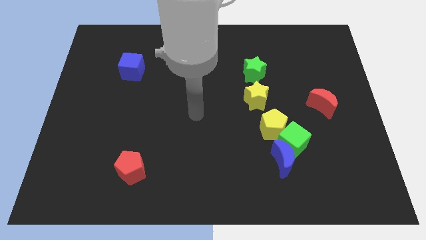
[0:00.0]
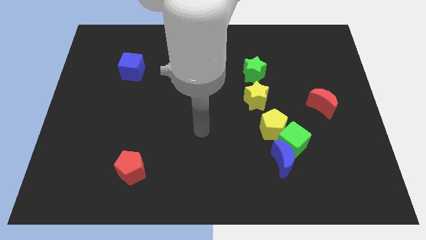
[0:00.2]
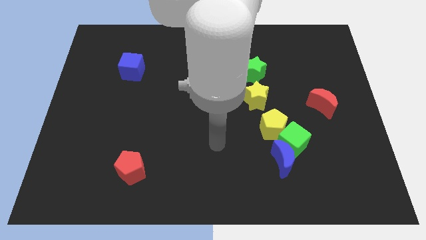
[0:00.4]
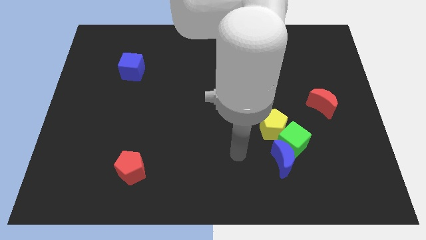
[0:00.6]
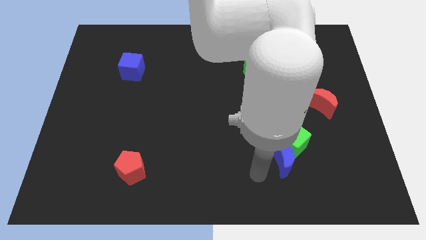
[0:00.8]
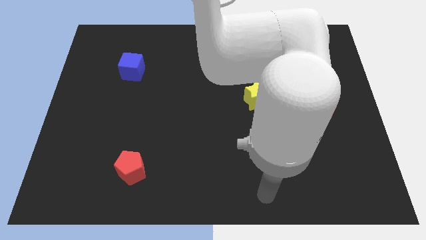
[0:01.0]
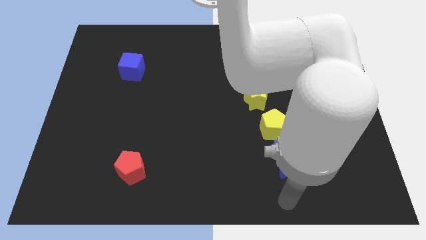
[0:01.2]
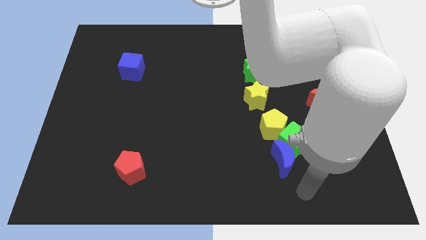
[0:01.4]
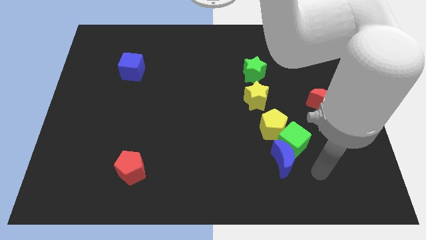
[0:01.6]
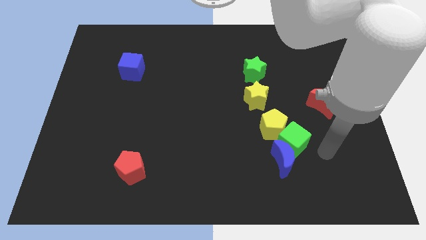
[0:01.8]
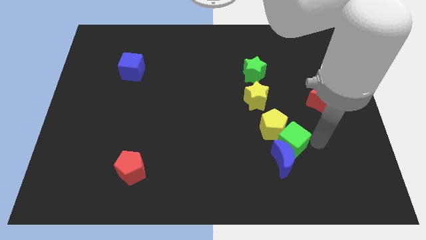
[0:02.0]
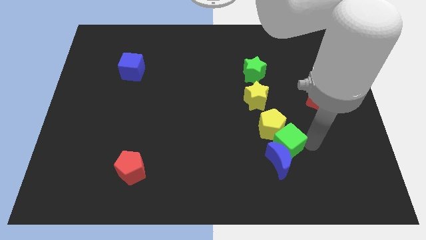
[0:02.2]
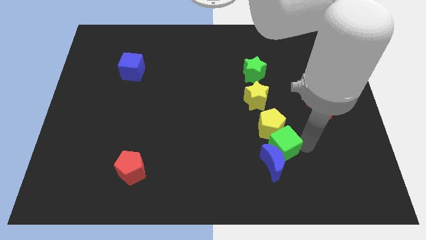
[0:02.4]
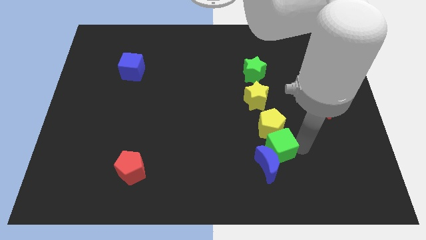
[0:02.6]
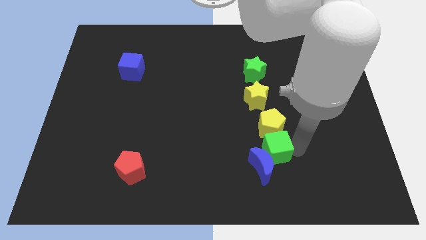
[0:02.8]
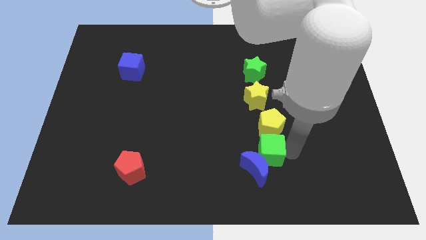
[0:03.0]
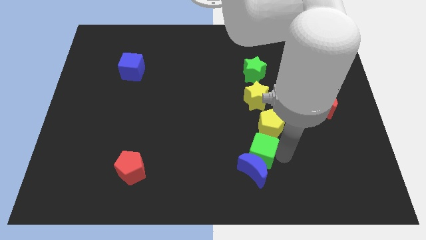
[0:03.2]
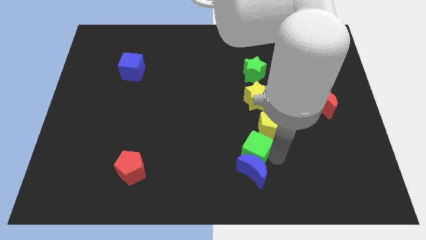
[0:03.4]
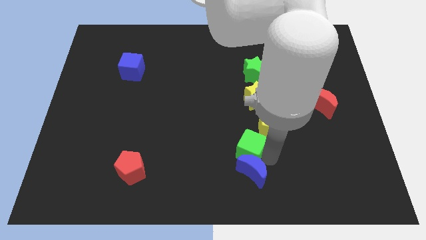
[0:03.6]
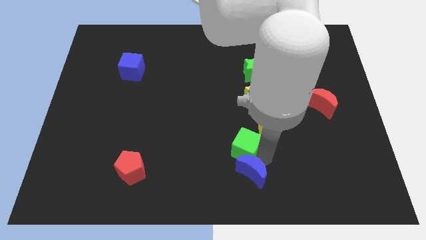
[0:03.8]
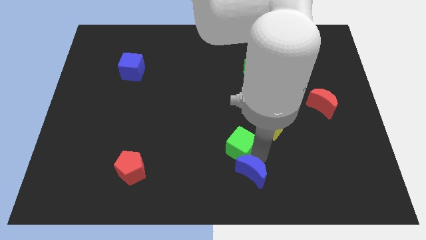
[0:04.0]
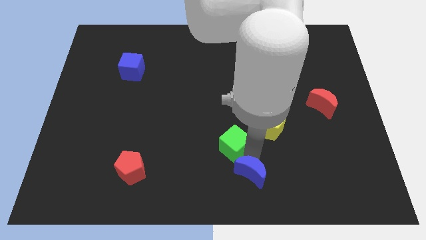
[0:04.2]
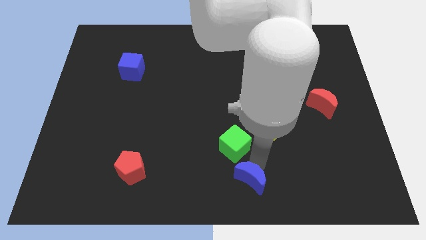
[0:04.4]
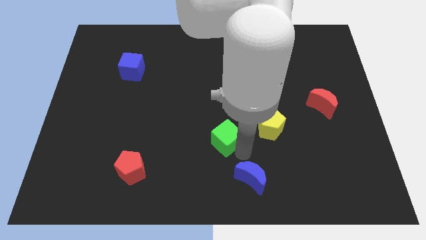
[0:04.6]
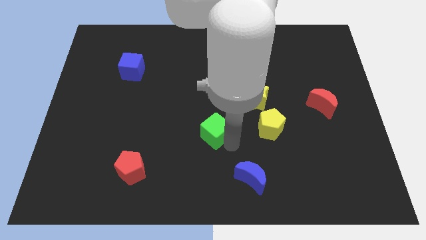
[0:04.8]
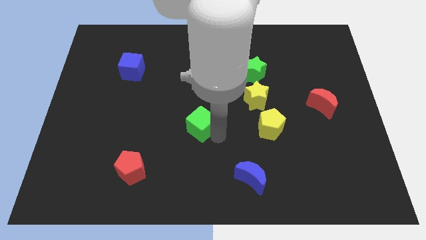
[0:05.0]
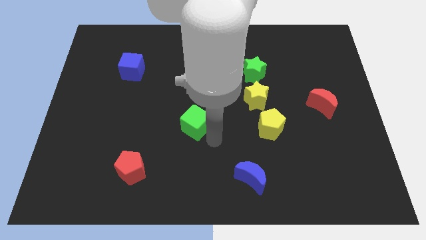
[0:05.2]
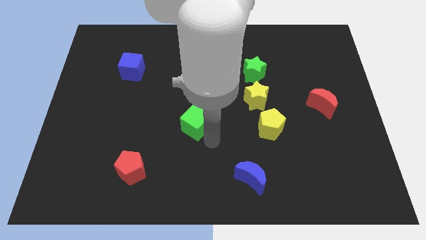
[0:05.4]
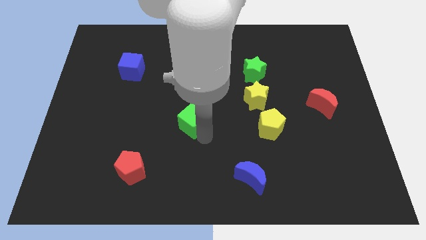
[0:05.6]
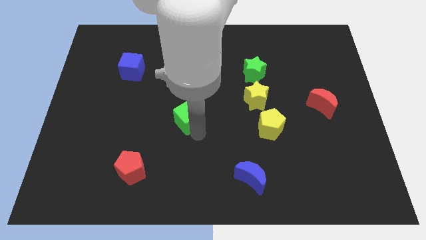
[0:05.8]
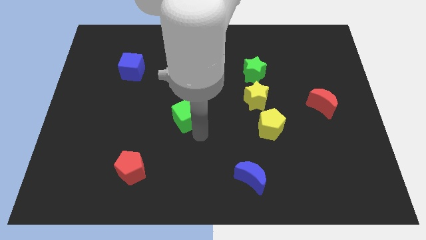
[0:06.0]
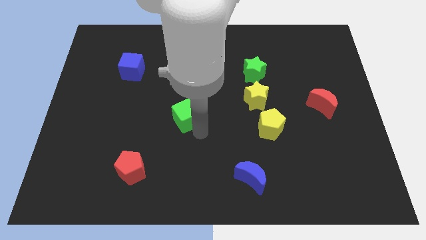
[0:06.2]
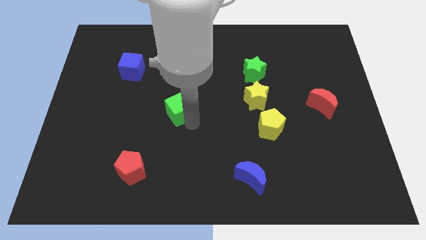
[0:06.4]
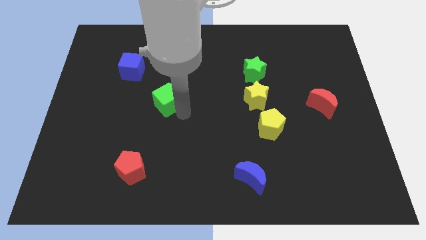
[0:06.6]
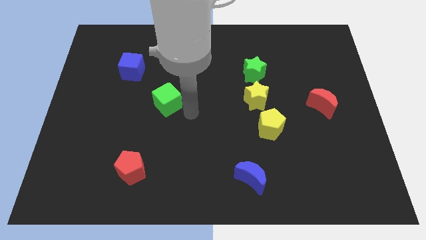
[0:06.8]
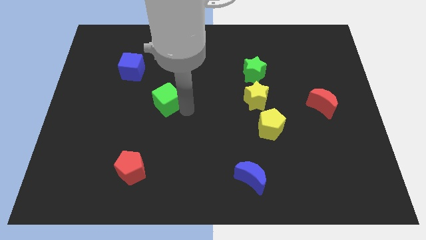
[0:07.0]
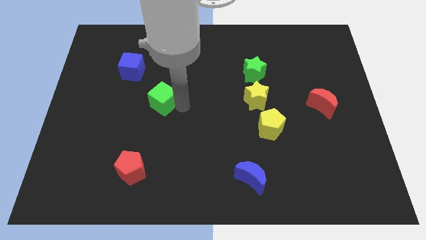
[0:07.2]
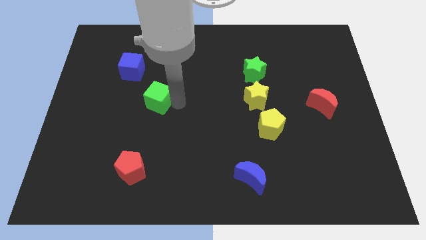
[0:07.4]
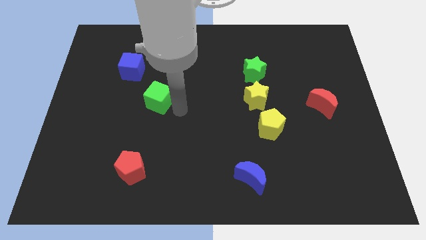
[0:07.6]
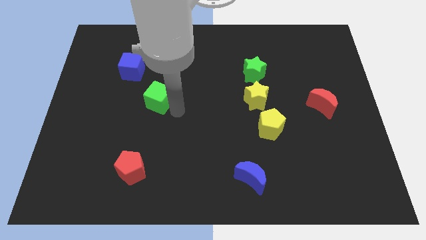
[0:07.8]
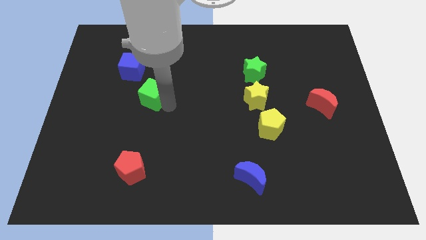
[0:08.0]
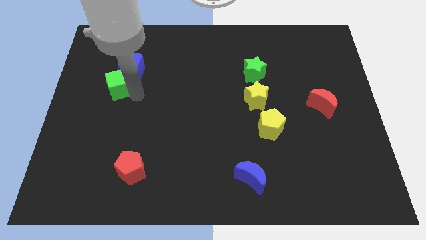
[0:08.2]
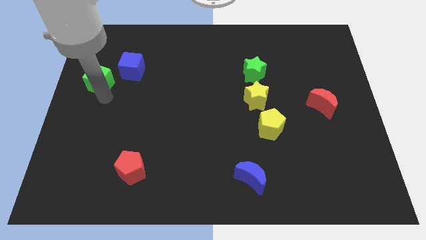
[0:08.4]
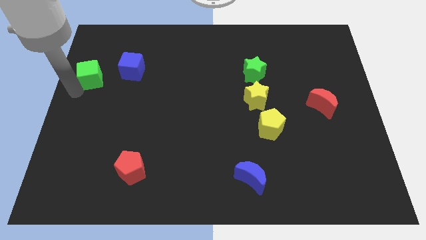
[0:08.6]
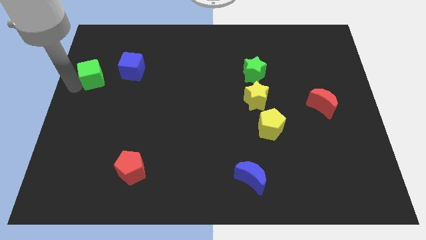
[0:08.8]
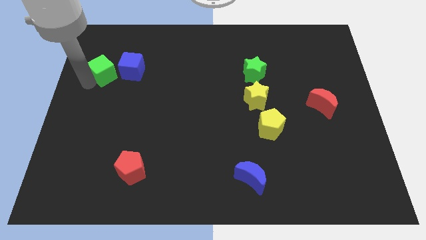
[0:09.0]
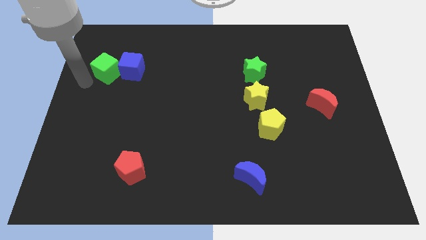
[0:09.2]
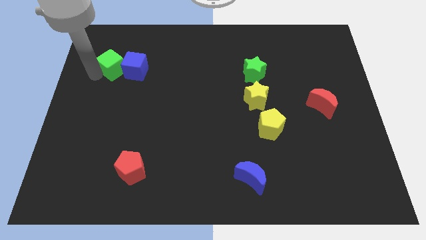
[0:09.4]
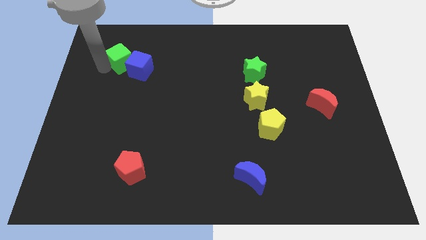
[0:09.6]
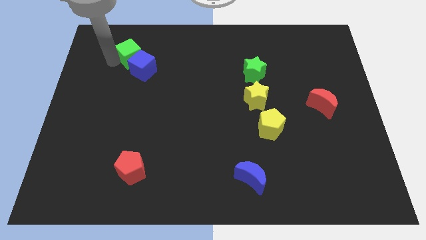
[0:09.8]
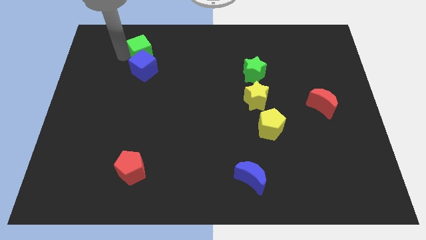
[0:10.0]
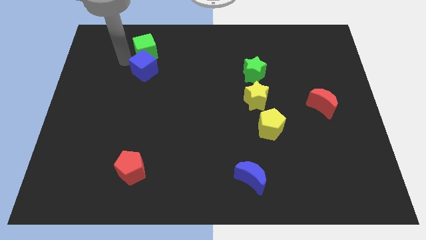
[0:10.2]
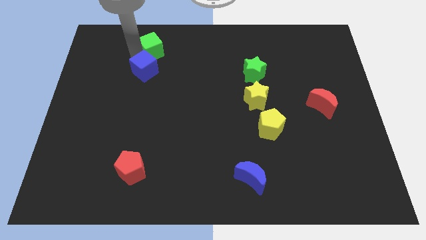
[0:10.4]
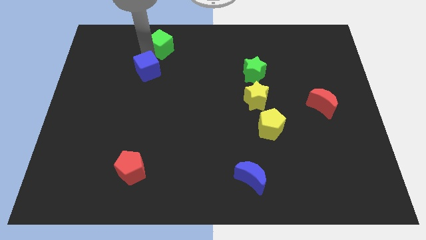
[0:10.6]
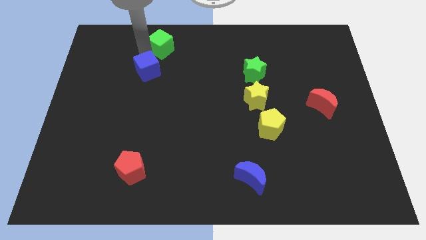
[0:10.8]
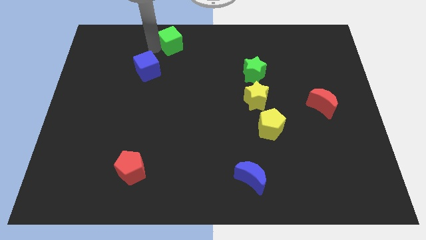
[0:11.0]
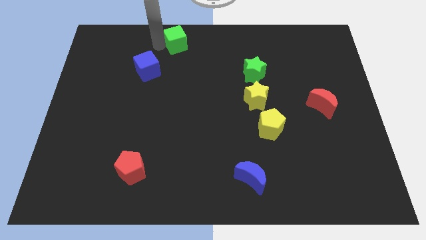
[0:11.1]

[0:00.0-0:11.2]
push the green cube to the towards your base

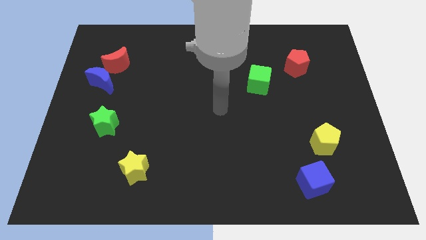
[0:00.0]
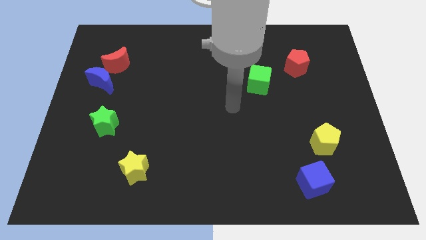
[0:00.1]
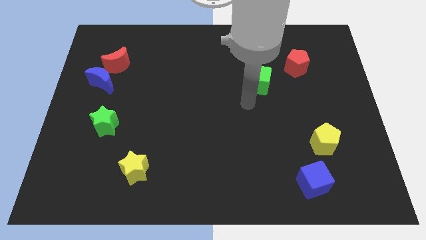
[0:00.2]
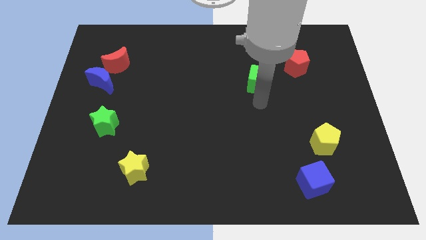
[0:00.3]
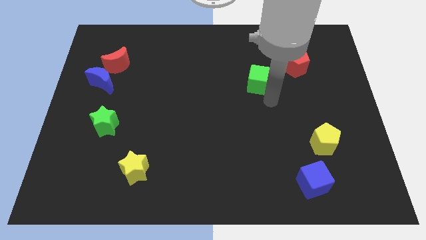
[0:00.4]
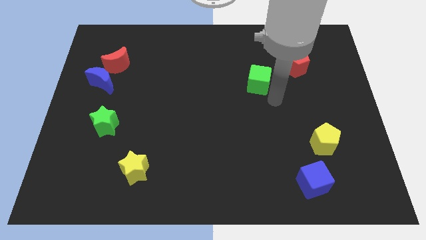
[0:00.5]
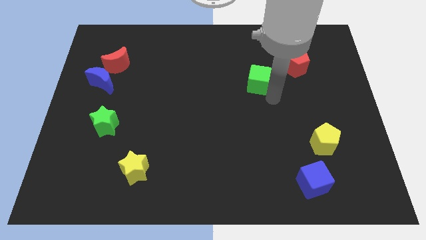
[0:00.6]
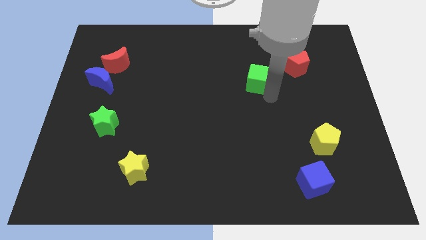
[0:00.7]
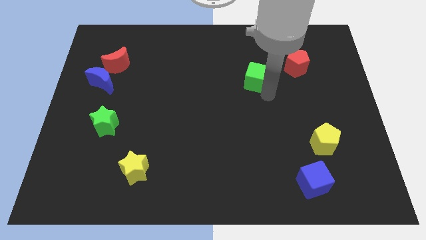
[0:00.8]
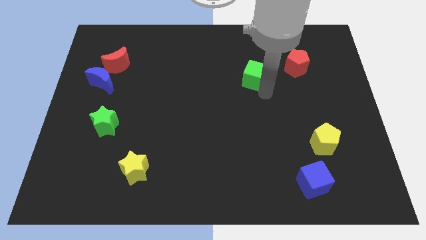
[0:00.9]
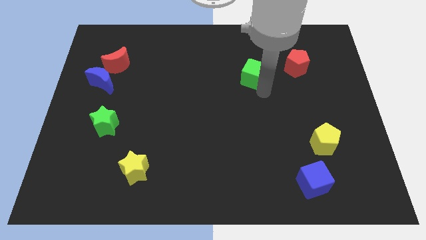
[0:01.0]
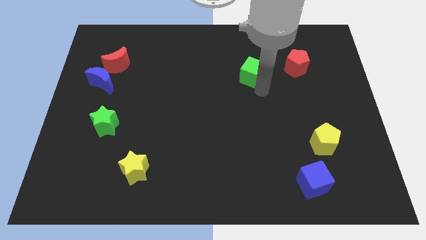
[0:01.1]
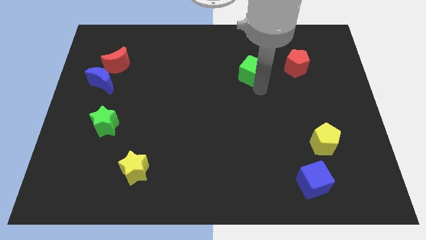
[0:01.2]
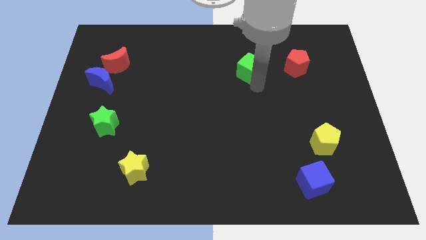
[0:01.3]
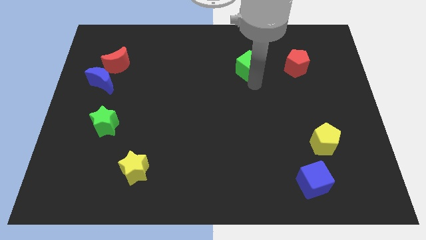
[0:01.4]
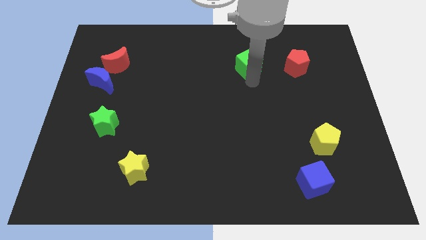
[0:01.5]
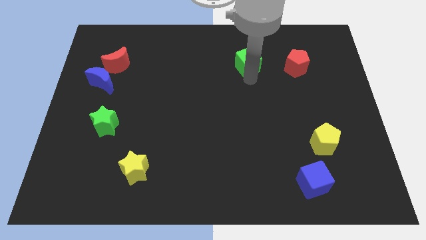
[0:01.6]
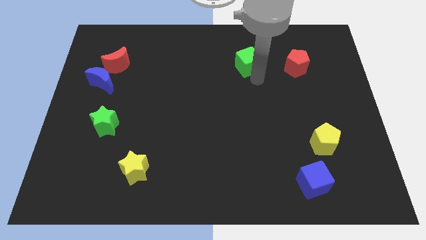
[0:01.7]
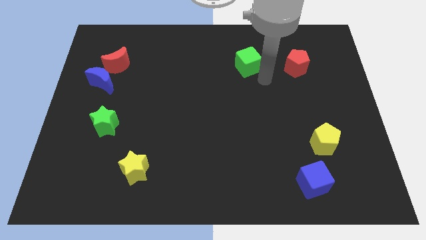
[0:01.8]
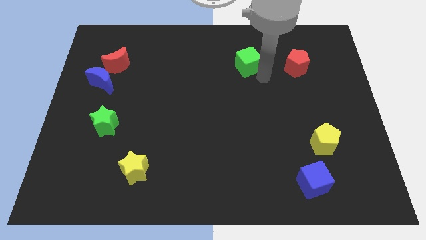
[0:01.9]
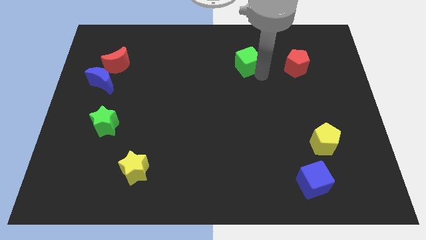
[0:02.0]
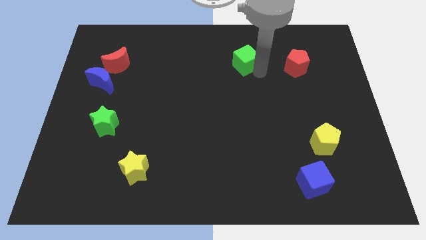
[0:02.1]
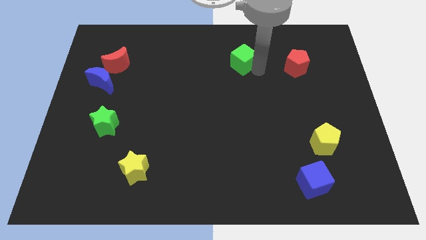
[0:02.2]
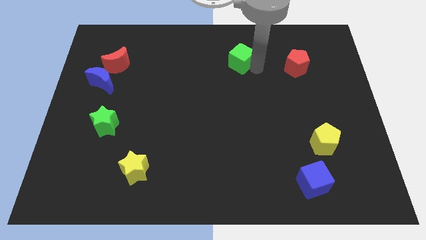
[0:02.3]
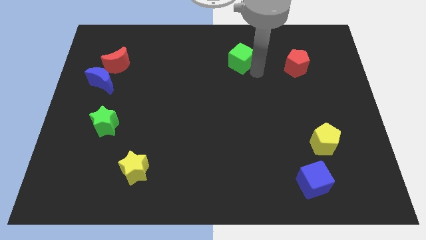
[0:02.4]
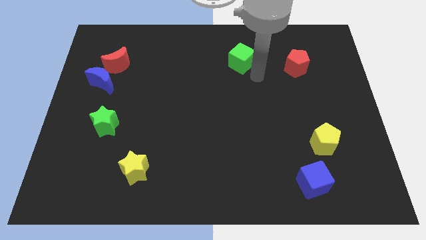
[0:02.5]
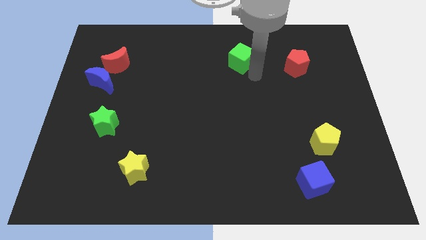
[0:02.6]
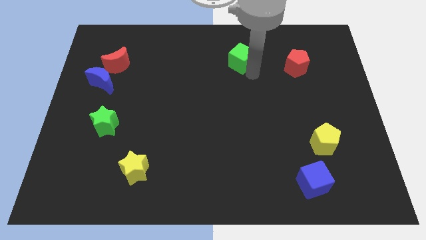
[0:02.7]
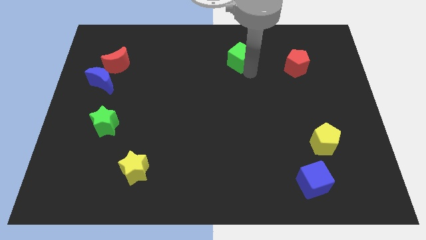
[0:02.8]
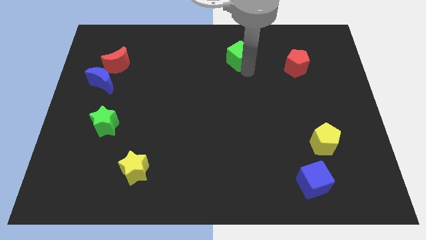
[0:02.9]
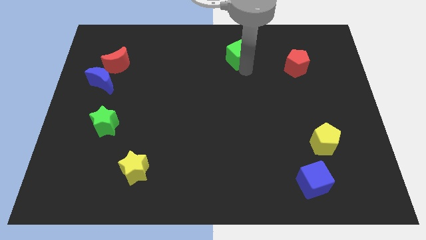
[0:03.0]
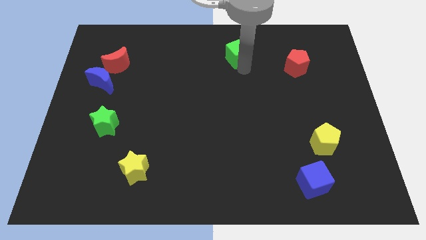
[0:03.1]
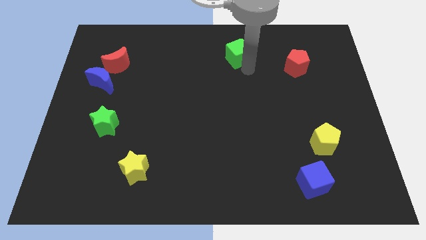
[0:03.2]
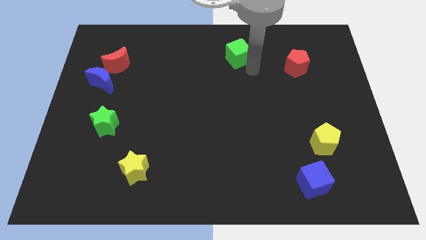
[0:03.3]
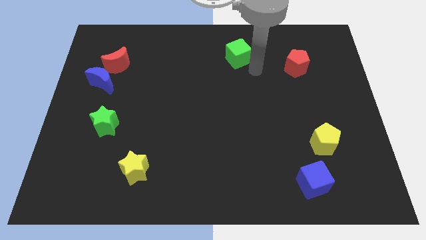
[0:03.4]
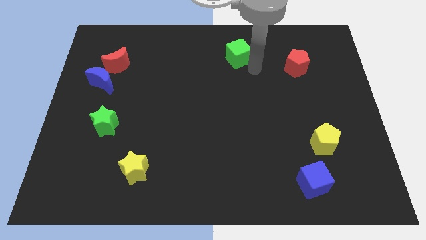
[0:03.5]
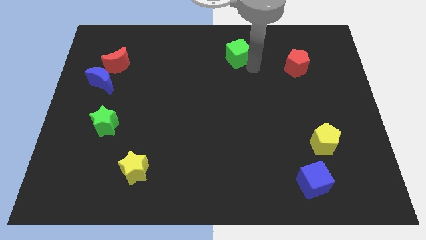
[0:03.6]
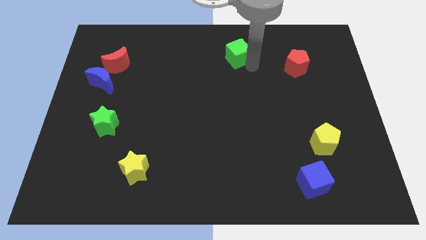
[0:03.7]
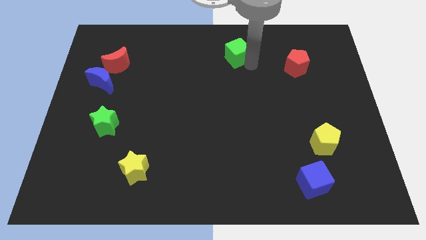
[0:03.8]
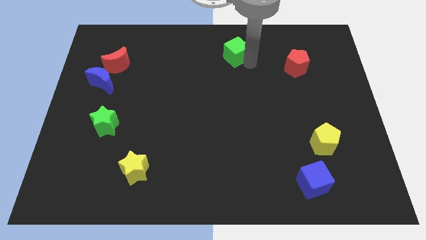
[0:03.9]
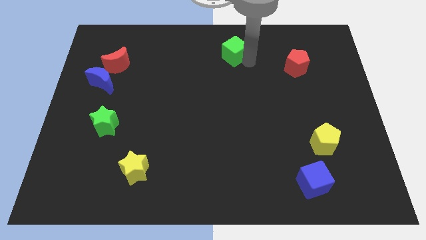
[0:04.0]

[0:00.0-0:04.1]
move the green cube to the top
